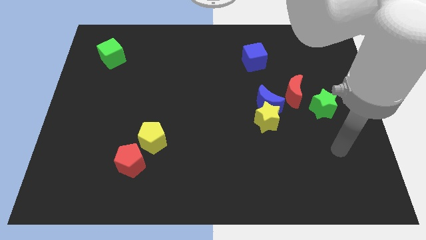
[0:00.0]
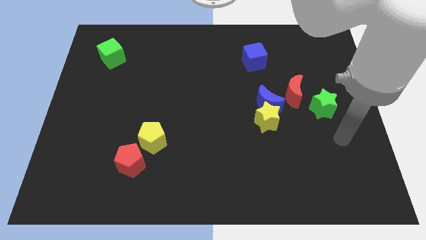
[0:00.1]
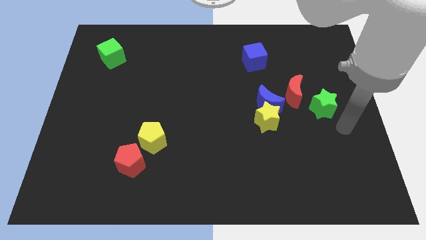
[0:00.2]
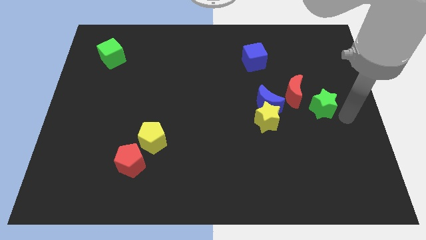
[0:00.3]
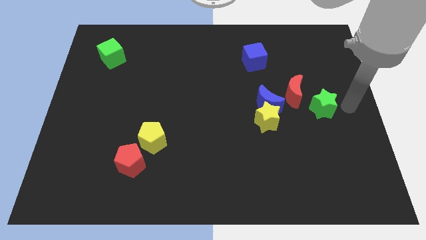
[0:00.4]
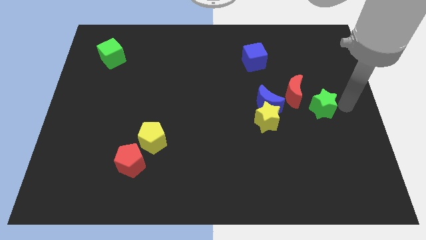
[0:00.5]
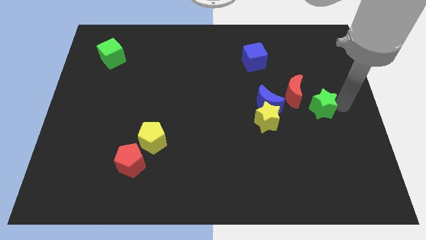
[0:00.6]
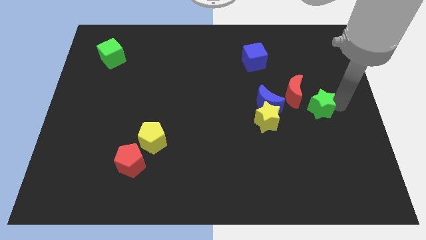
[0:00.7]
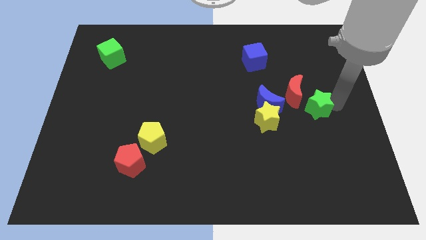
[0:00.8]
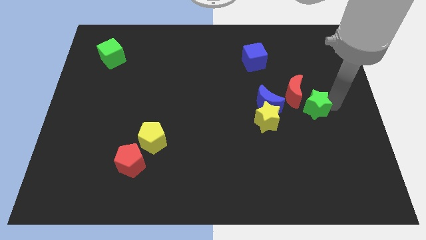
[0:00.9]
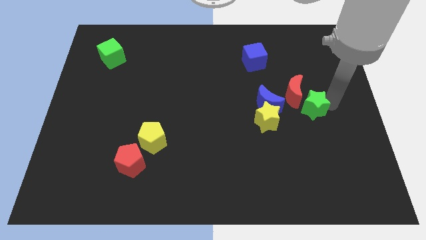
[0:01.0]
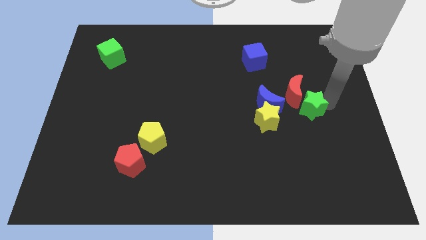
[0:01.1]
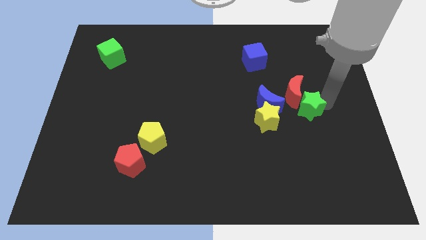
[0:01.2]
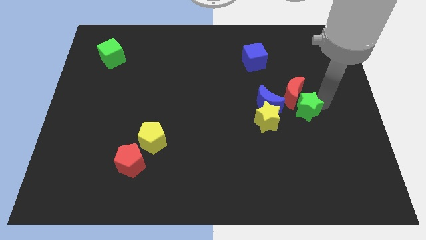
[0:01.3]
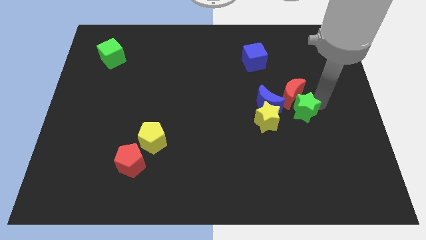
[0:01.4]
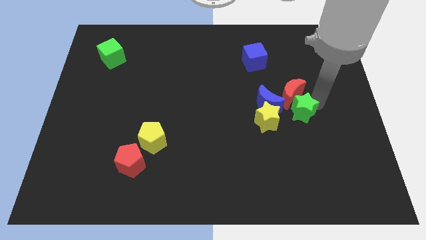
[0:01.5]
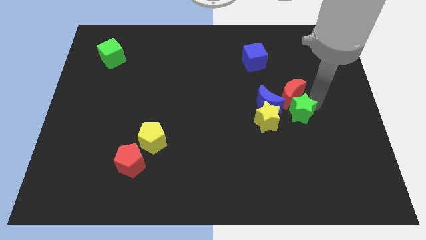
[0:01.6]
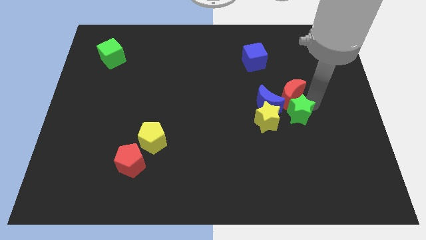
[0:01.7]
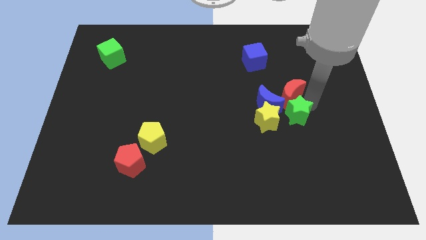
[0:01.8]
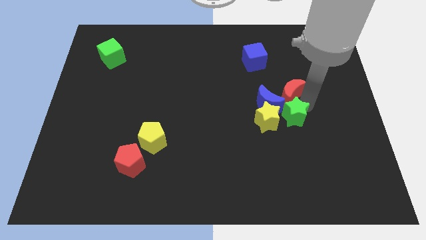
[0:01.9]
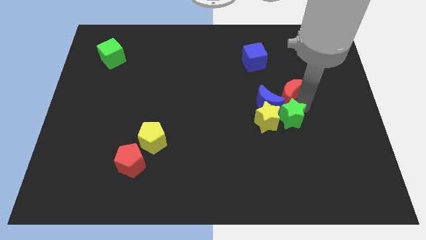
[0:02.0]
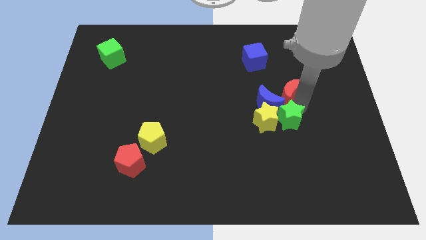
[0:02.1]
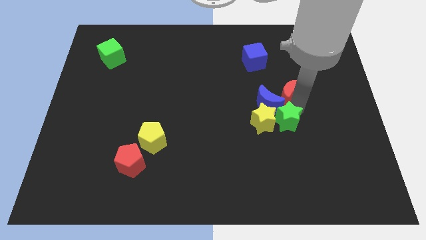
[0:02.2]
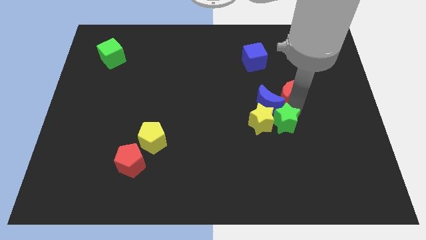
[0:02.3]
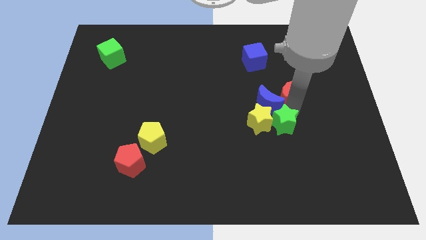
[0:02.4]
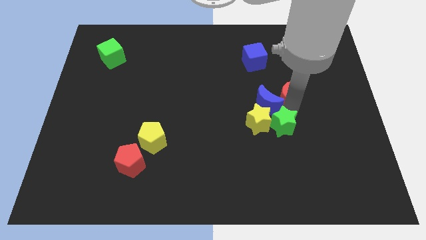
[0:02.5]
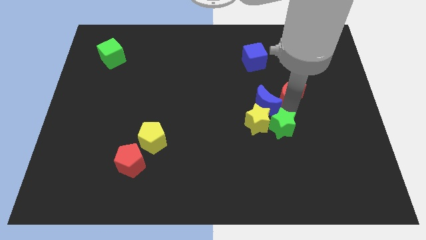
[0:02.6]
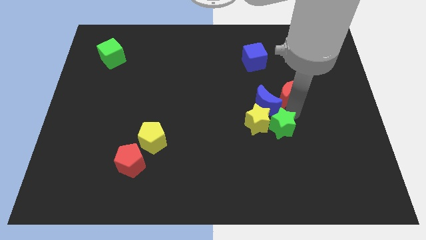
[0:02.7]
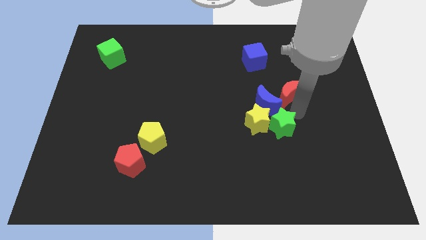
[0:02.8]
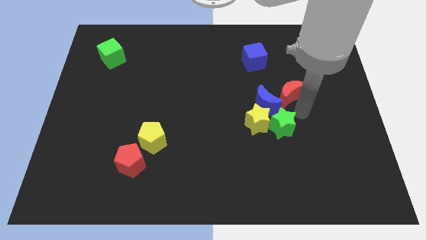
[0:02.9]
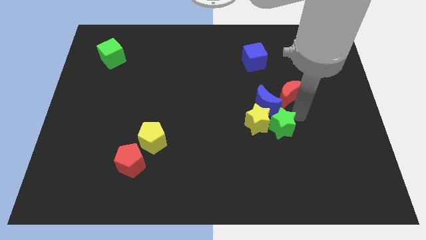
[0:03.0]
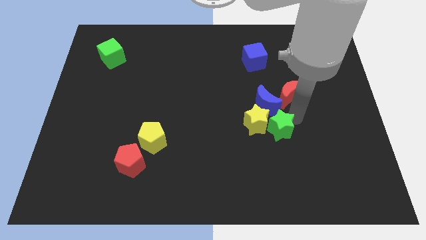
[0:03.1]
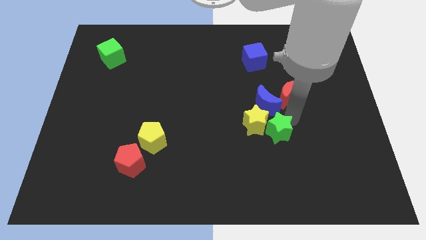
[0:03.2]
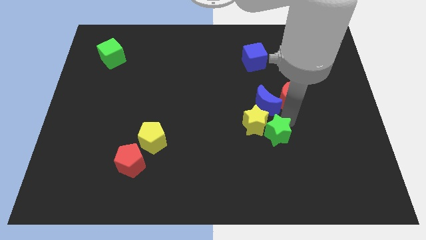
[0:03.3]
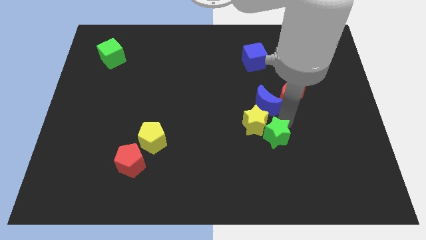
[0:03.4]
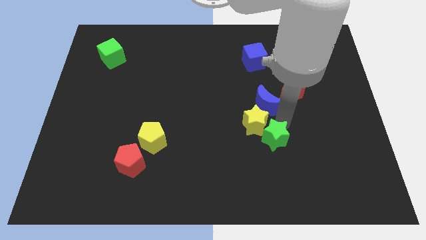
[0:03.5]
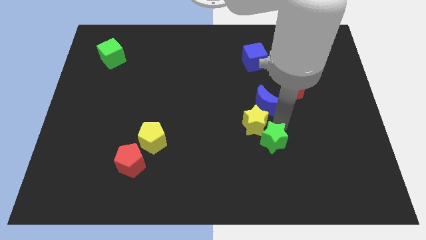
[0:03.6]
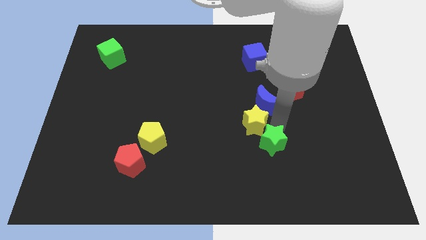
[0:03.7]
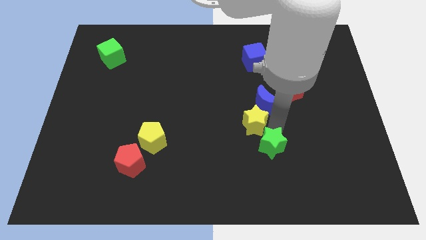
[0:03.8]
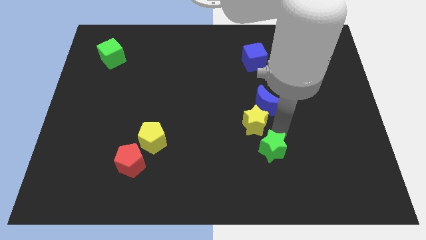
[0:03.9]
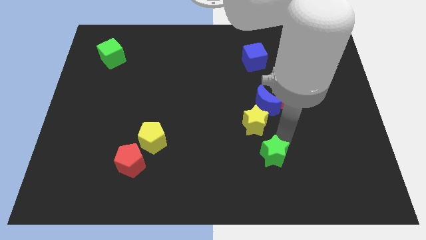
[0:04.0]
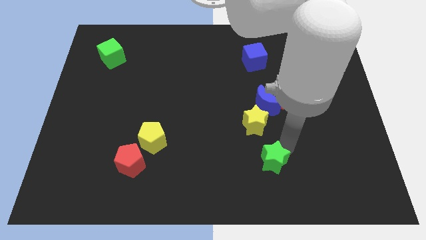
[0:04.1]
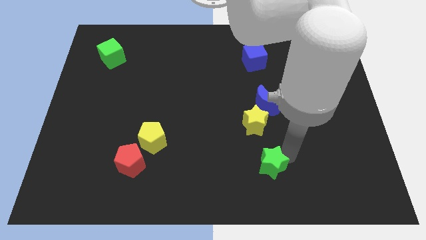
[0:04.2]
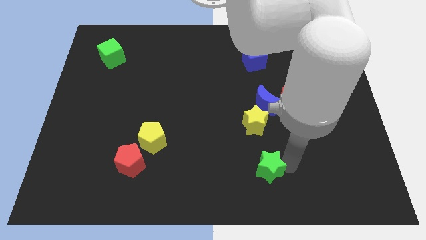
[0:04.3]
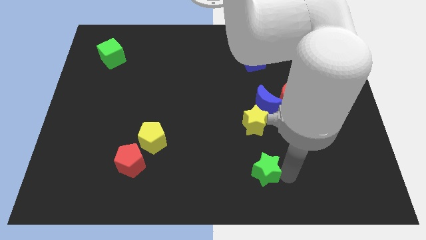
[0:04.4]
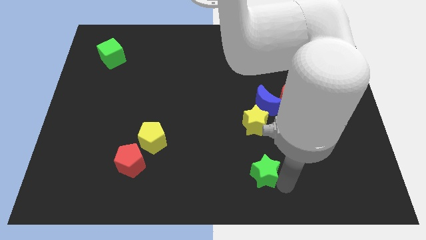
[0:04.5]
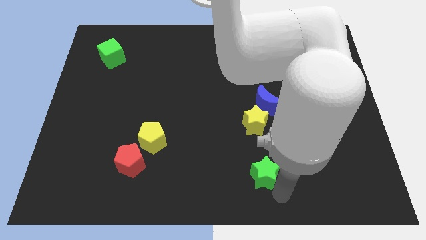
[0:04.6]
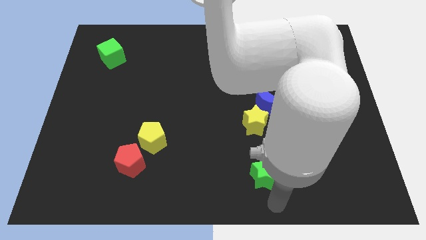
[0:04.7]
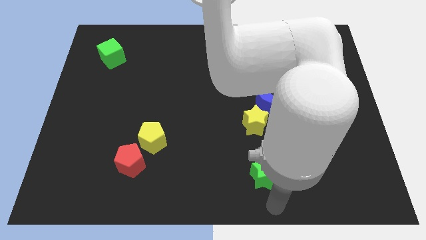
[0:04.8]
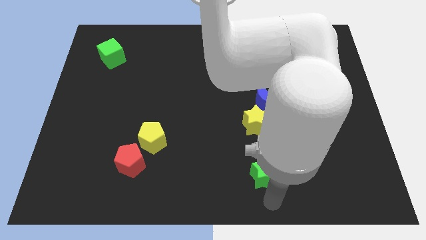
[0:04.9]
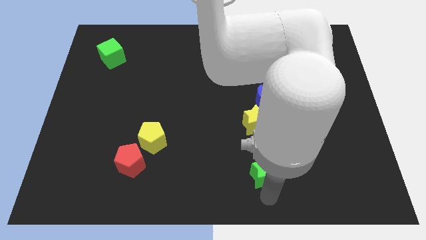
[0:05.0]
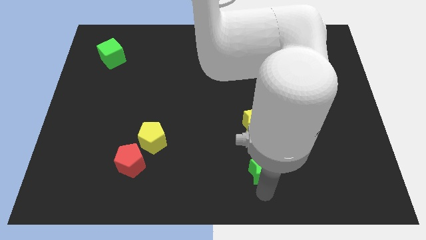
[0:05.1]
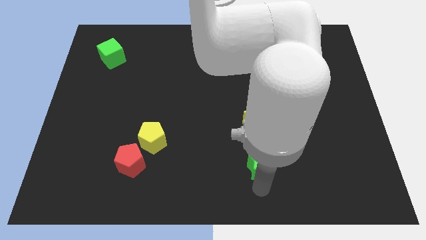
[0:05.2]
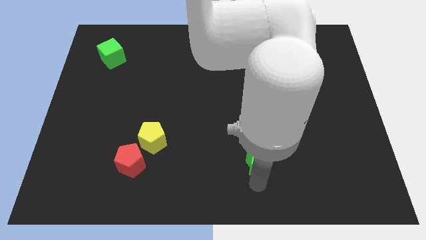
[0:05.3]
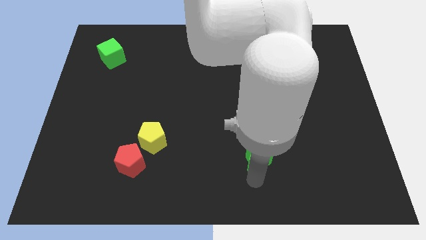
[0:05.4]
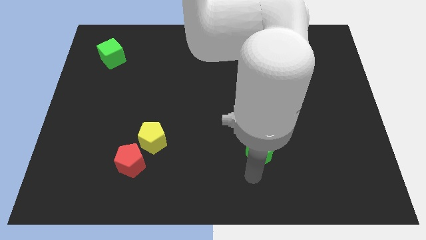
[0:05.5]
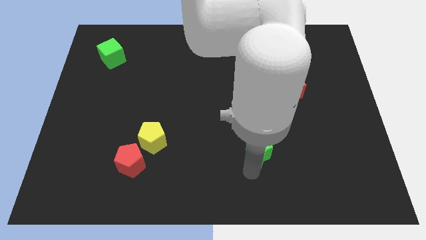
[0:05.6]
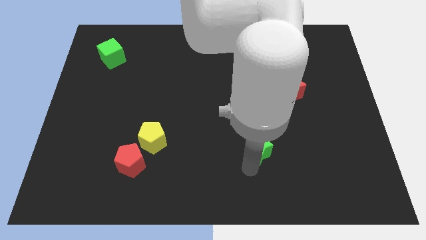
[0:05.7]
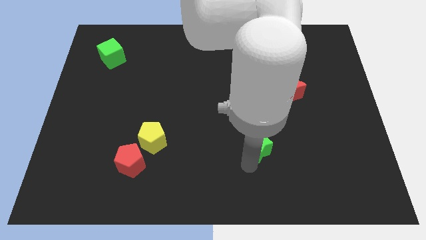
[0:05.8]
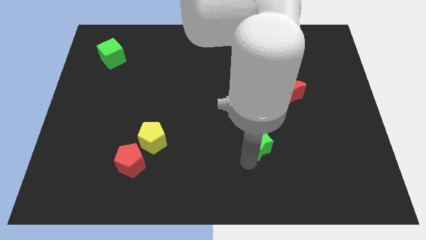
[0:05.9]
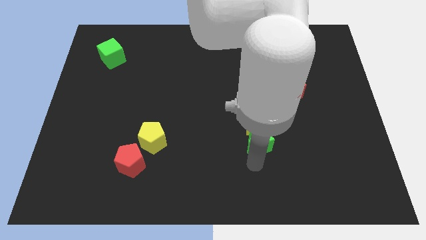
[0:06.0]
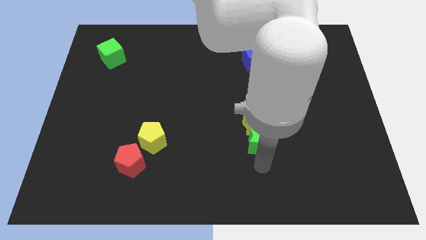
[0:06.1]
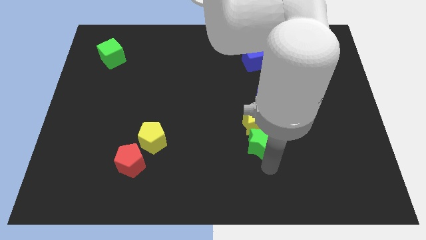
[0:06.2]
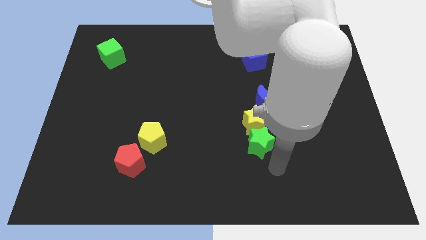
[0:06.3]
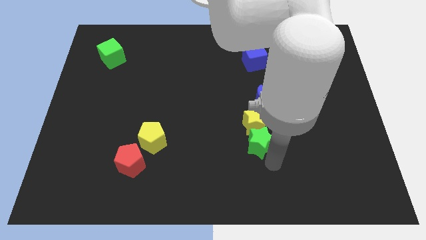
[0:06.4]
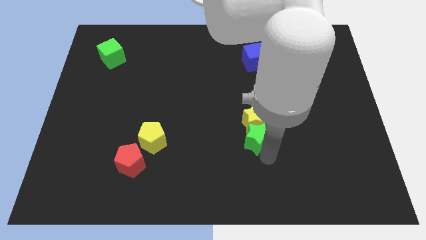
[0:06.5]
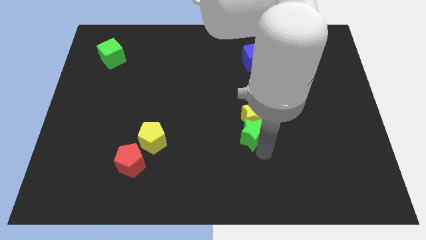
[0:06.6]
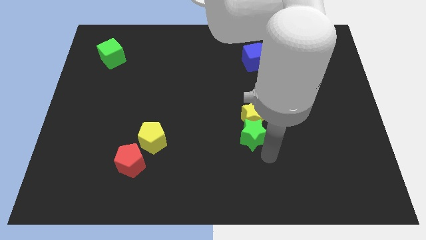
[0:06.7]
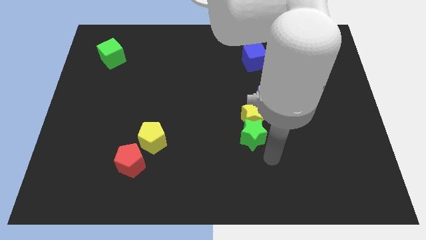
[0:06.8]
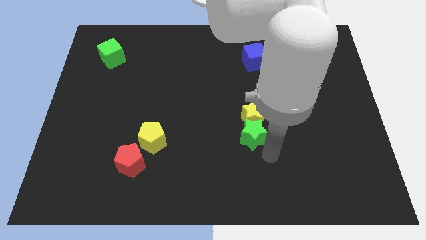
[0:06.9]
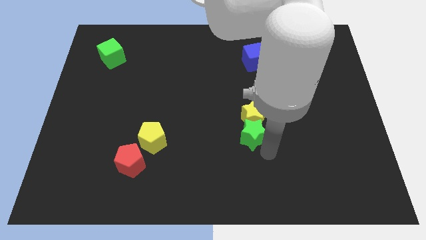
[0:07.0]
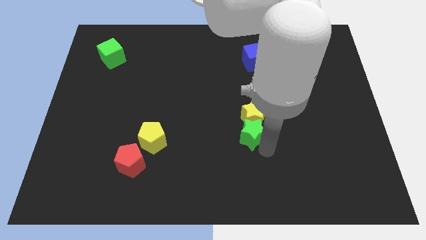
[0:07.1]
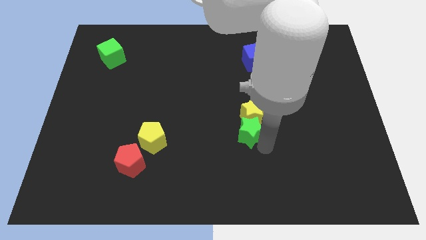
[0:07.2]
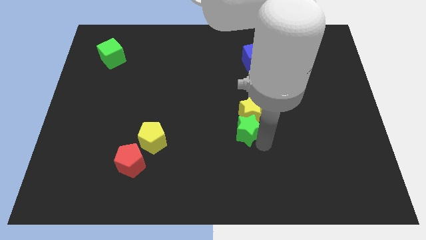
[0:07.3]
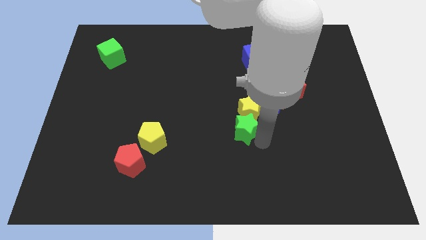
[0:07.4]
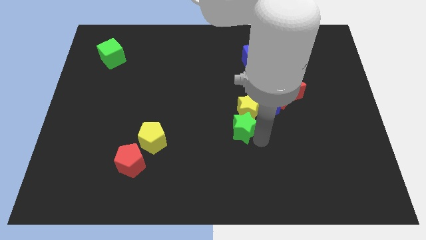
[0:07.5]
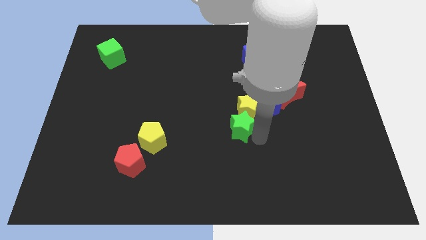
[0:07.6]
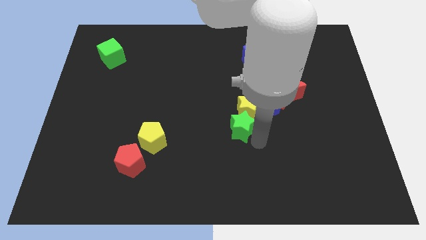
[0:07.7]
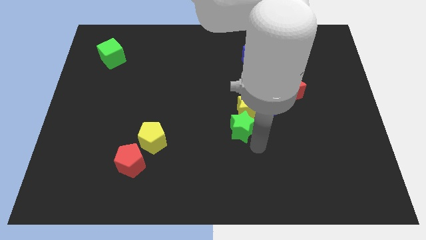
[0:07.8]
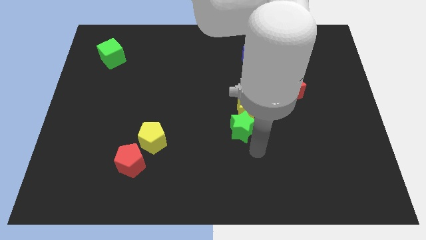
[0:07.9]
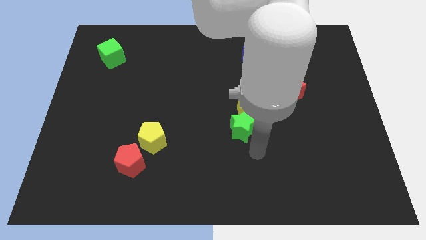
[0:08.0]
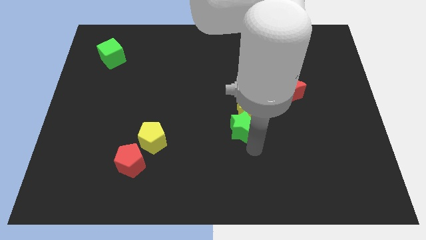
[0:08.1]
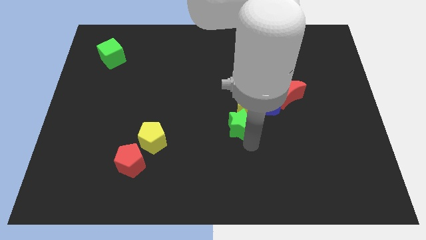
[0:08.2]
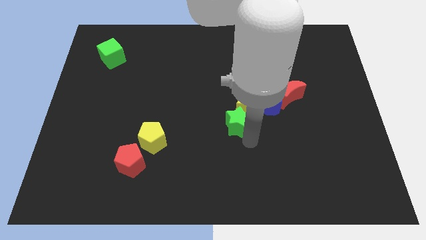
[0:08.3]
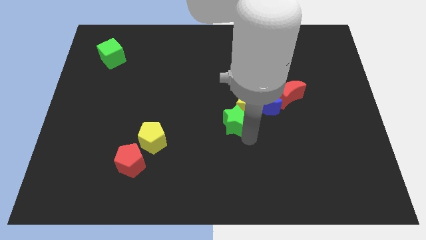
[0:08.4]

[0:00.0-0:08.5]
push the green star left
